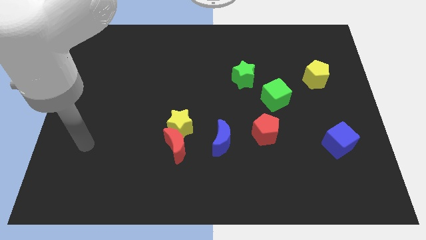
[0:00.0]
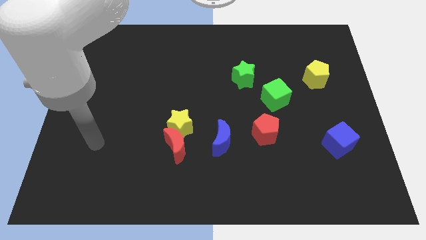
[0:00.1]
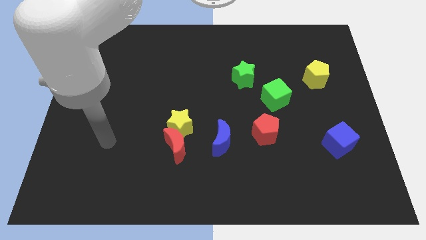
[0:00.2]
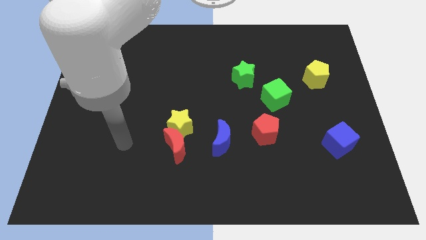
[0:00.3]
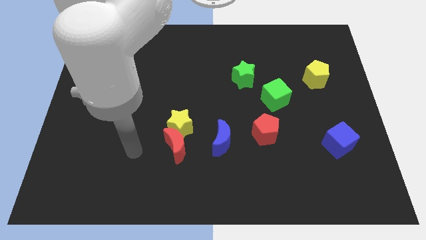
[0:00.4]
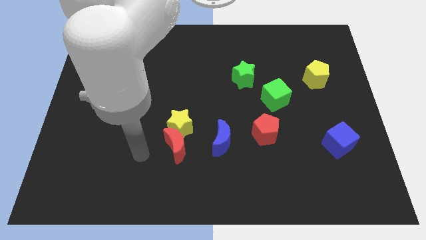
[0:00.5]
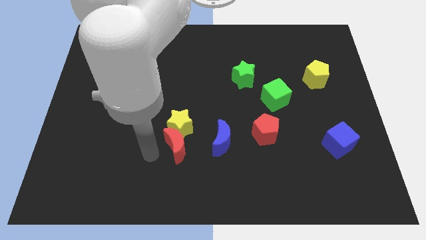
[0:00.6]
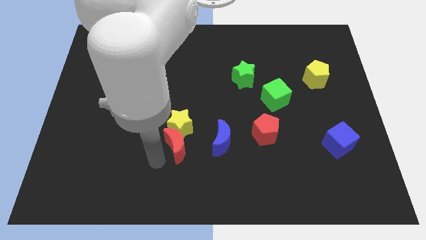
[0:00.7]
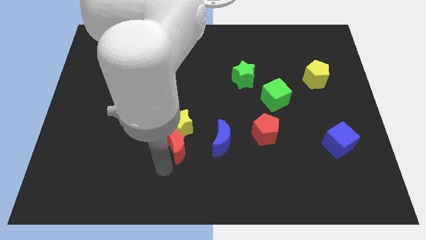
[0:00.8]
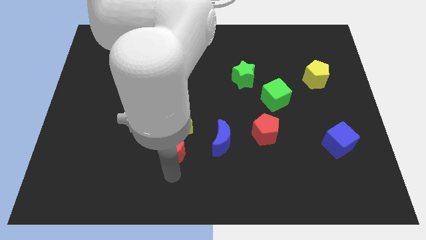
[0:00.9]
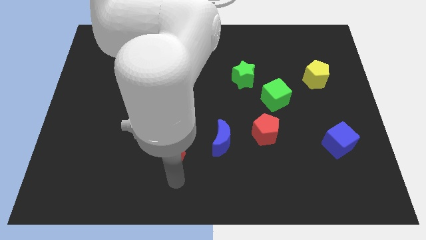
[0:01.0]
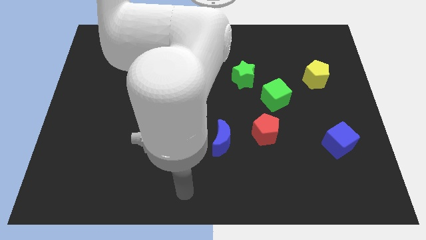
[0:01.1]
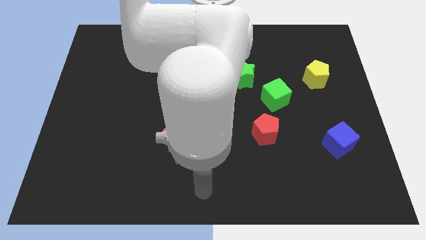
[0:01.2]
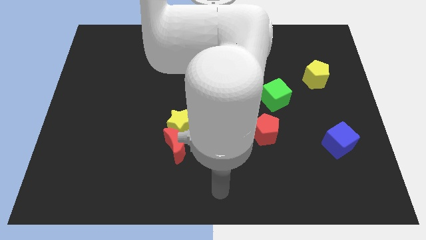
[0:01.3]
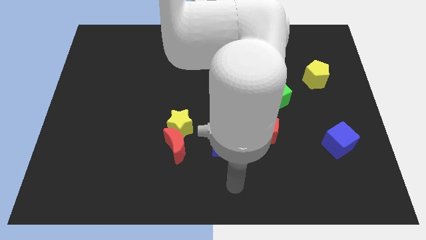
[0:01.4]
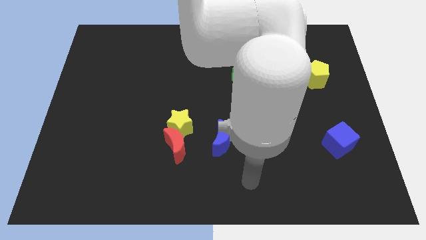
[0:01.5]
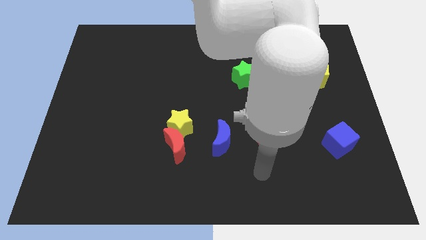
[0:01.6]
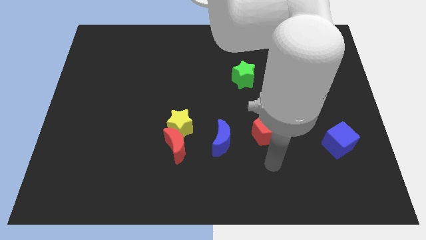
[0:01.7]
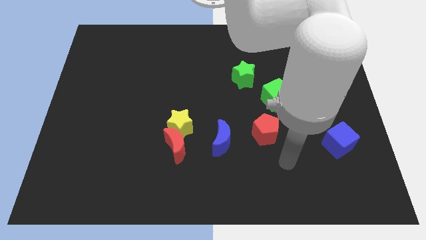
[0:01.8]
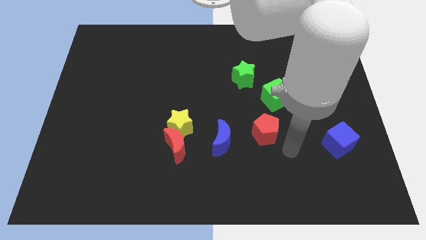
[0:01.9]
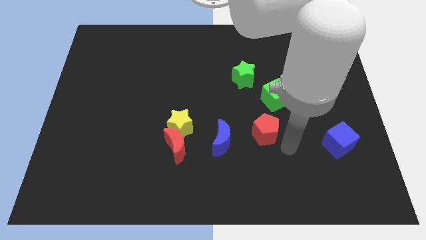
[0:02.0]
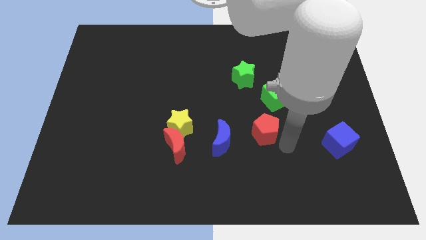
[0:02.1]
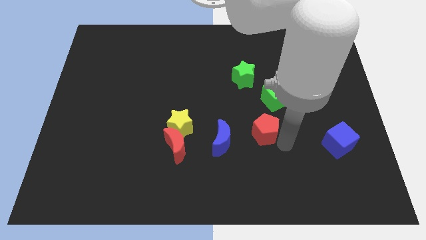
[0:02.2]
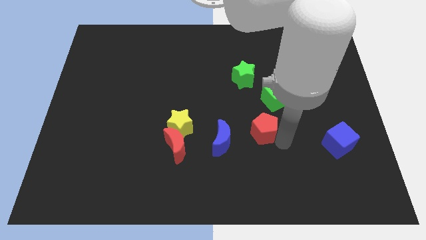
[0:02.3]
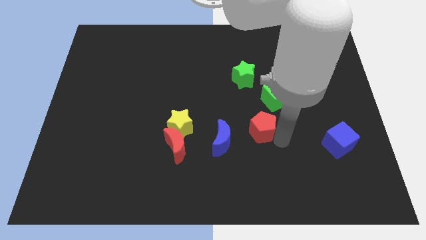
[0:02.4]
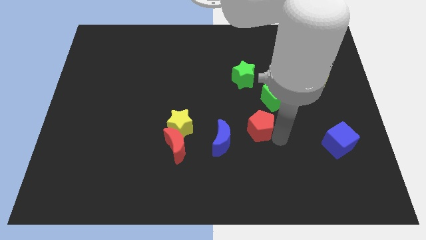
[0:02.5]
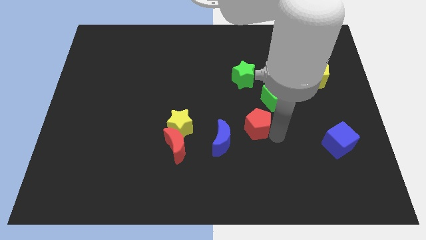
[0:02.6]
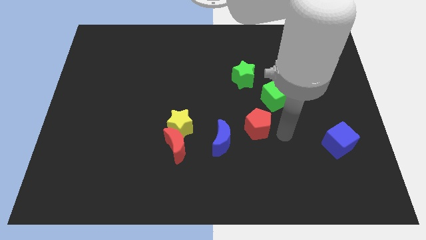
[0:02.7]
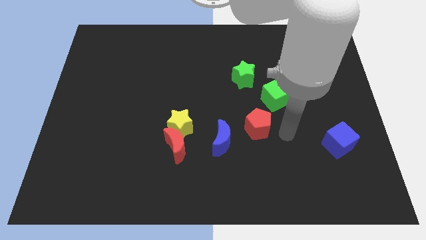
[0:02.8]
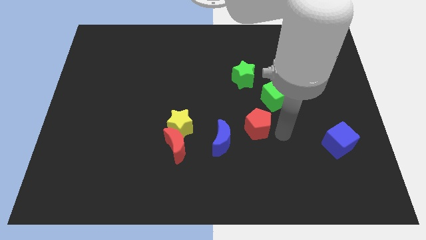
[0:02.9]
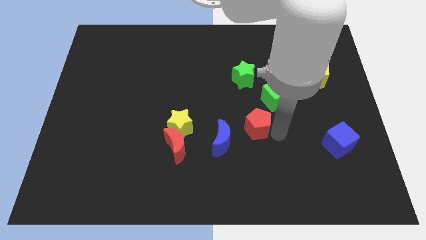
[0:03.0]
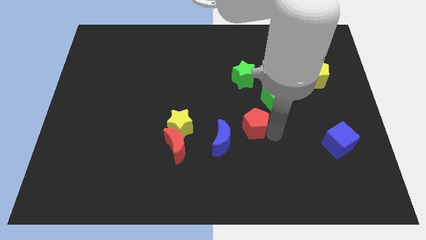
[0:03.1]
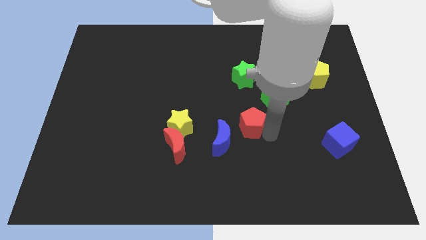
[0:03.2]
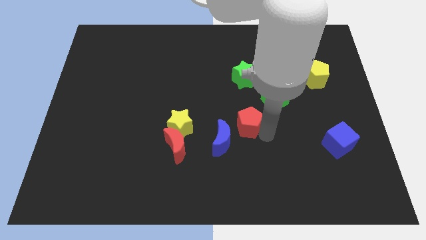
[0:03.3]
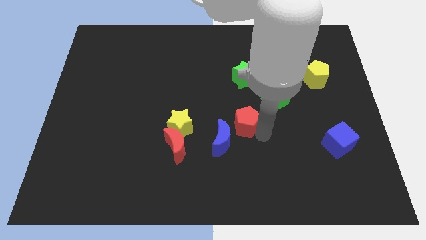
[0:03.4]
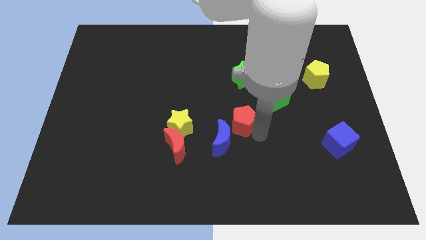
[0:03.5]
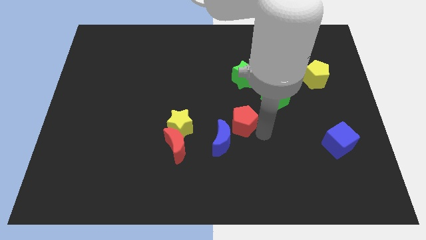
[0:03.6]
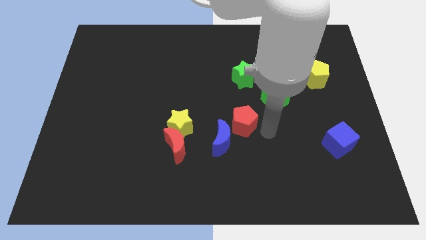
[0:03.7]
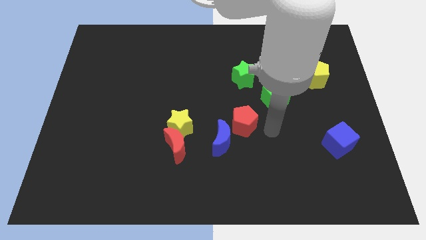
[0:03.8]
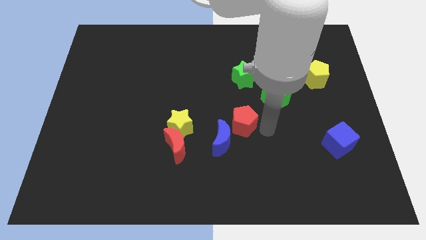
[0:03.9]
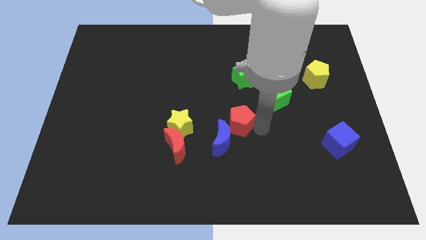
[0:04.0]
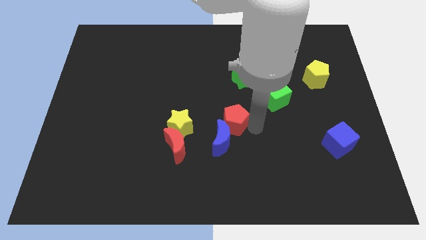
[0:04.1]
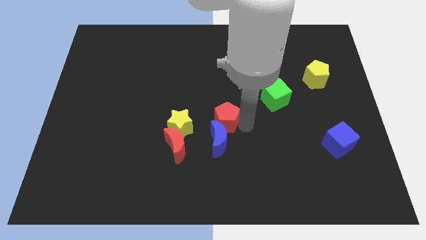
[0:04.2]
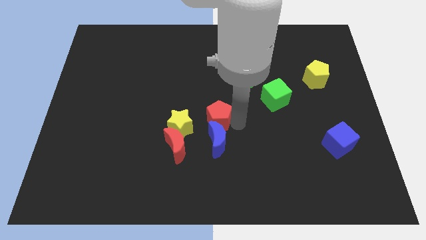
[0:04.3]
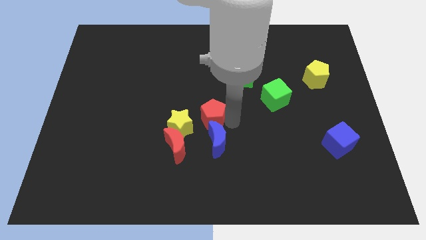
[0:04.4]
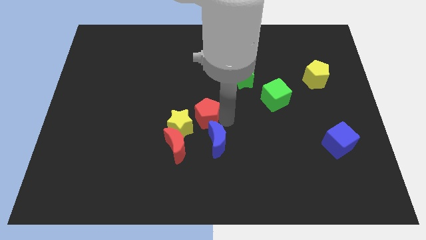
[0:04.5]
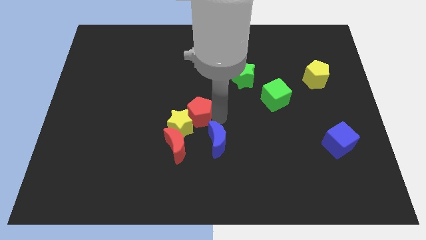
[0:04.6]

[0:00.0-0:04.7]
move the red pentagon to the yellow star

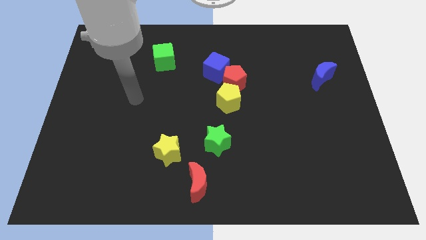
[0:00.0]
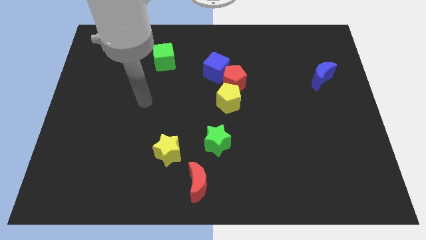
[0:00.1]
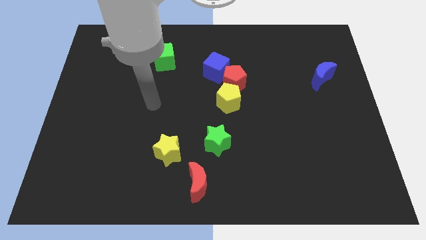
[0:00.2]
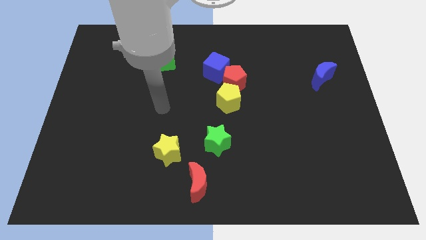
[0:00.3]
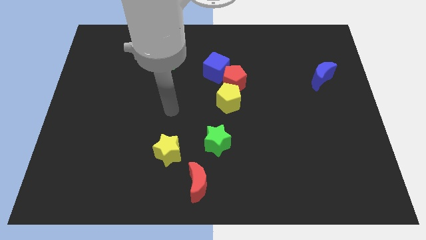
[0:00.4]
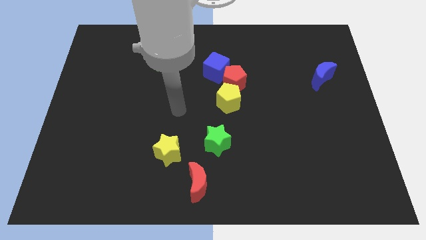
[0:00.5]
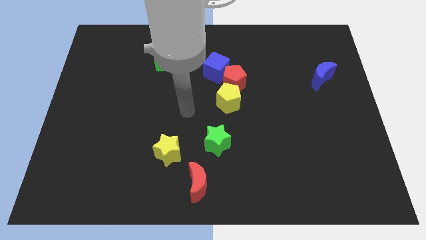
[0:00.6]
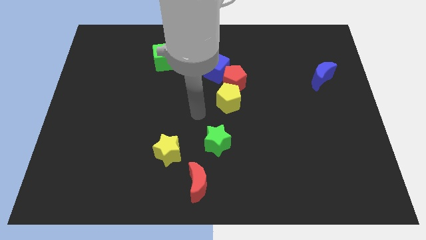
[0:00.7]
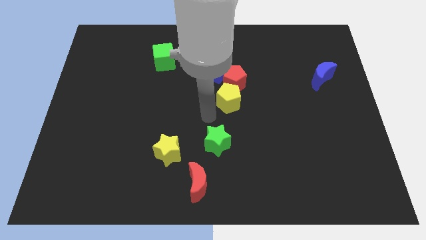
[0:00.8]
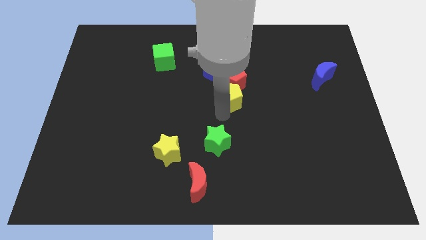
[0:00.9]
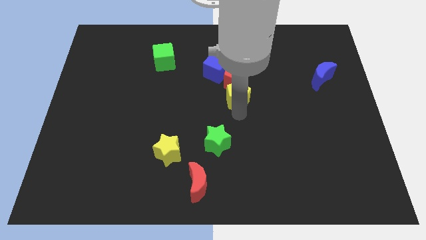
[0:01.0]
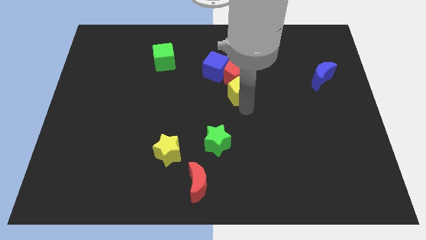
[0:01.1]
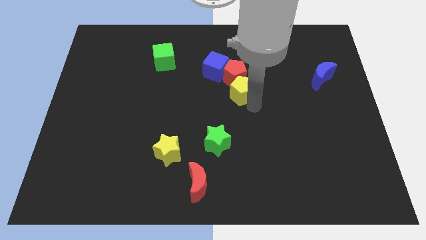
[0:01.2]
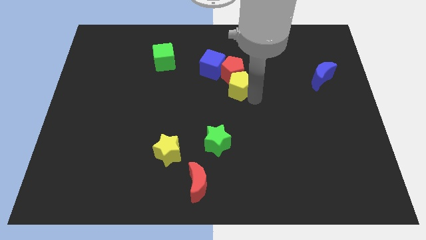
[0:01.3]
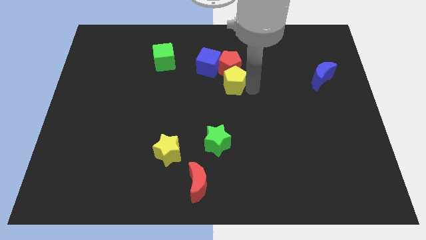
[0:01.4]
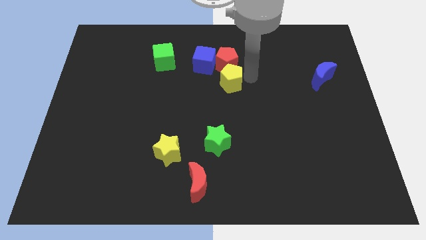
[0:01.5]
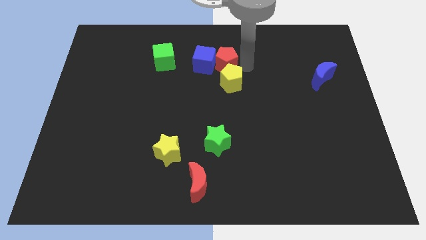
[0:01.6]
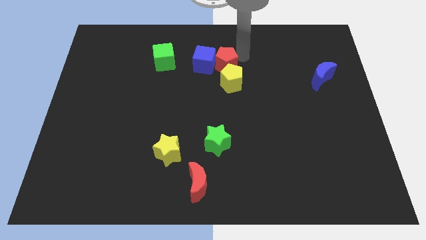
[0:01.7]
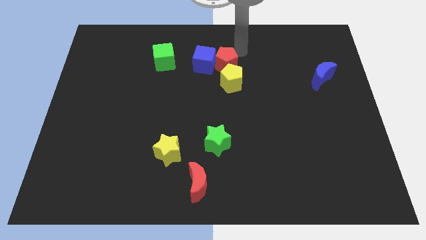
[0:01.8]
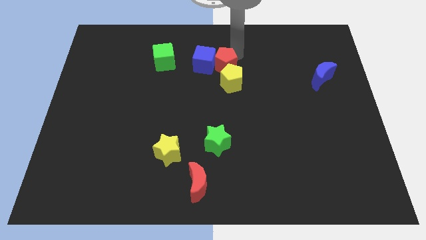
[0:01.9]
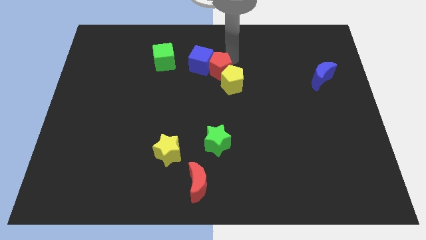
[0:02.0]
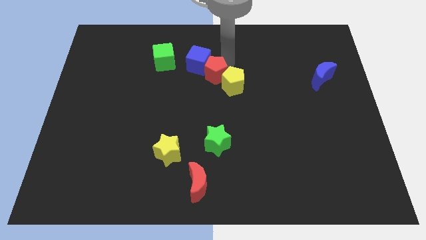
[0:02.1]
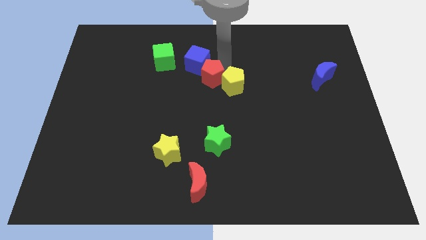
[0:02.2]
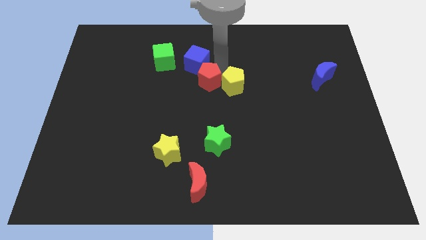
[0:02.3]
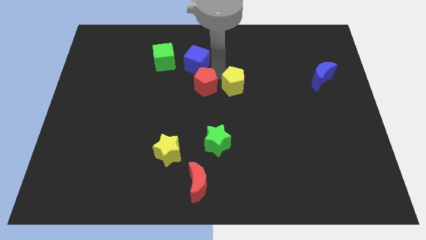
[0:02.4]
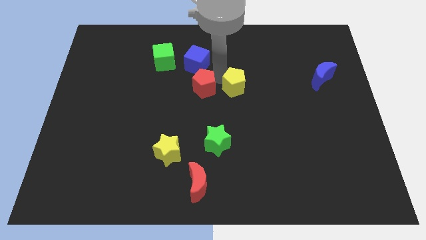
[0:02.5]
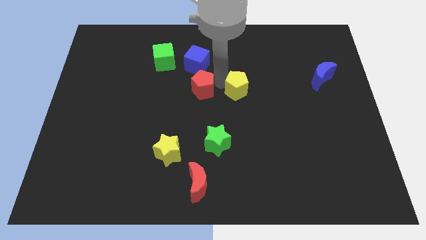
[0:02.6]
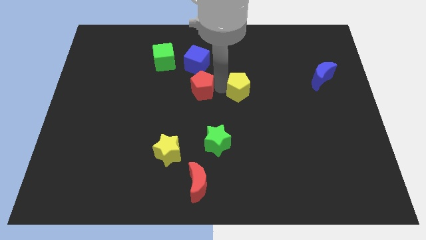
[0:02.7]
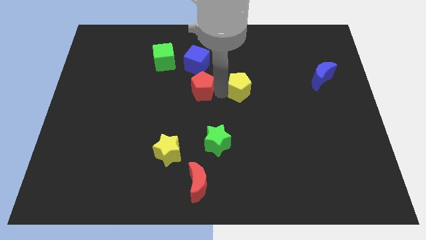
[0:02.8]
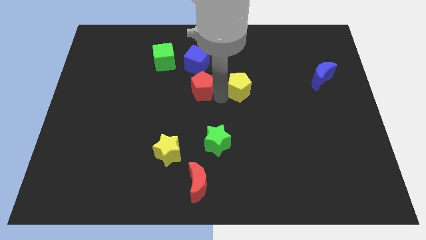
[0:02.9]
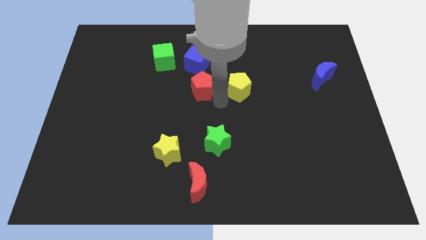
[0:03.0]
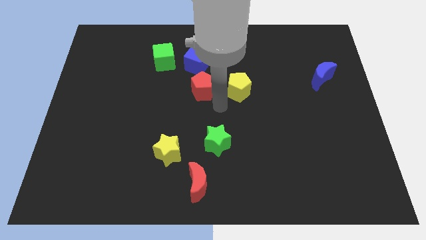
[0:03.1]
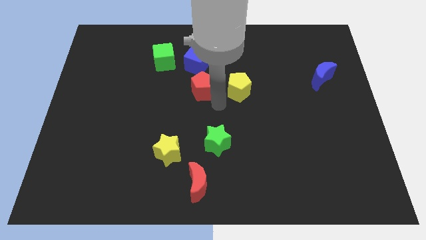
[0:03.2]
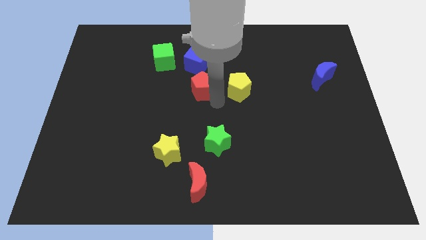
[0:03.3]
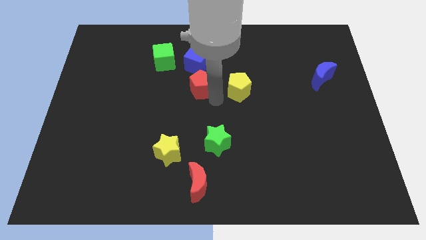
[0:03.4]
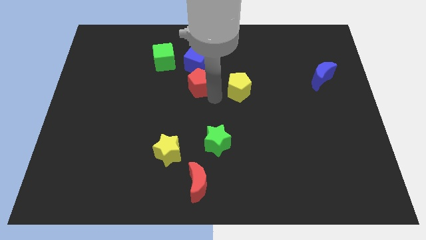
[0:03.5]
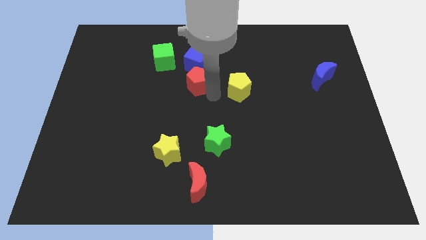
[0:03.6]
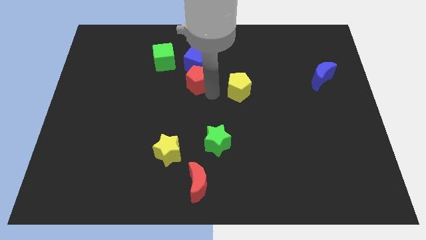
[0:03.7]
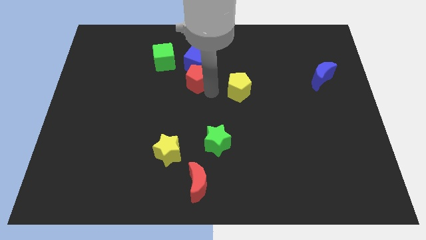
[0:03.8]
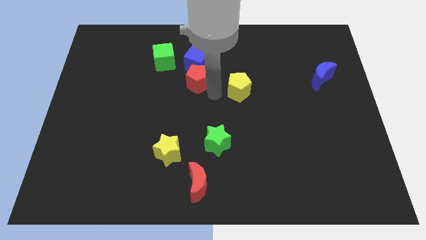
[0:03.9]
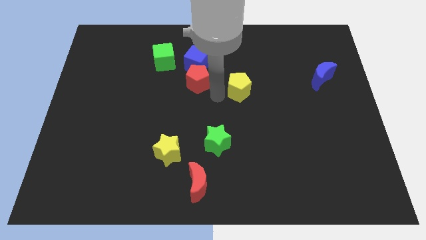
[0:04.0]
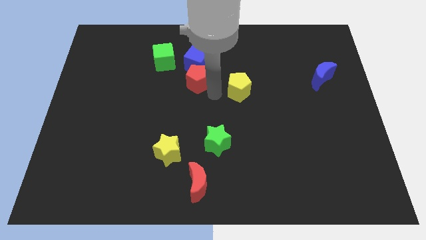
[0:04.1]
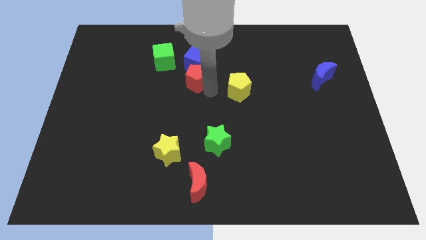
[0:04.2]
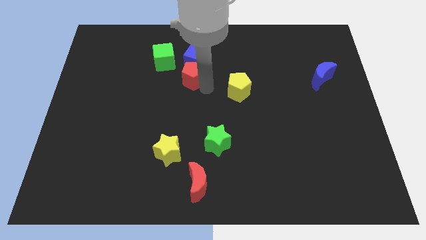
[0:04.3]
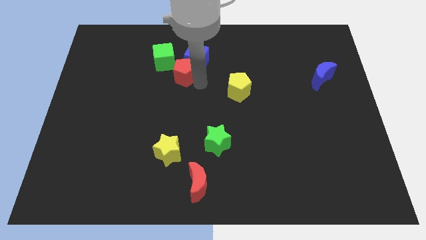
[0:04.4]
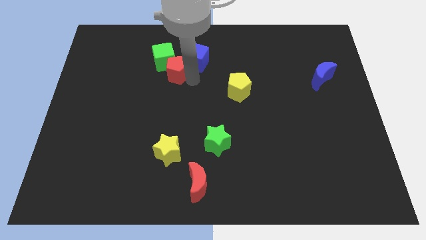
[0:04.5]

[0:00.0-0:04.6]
push the red pentagon next to the green cube
